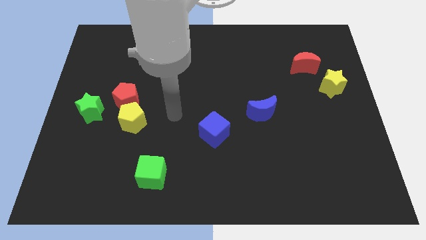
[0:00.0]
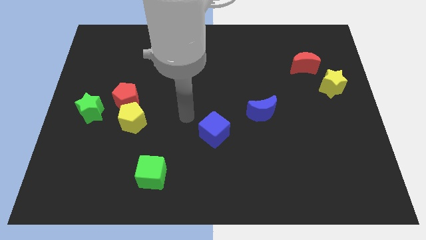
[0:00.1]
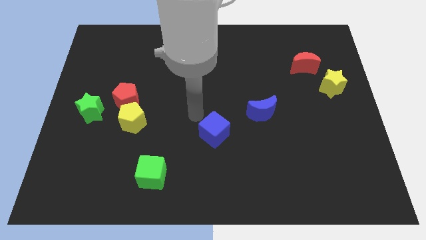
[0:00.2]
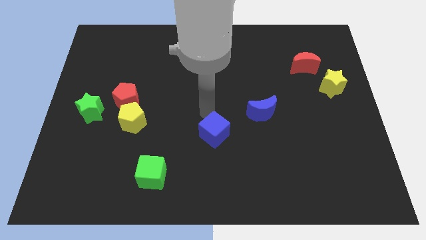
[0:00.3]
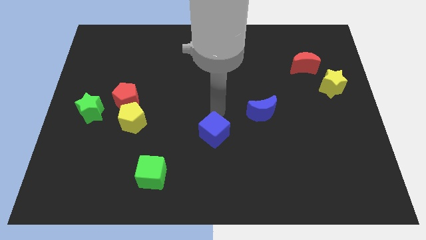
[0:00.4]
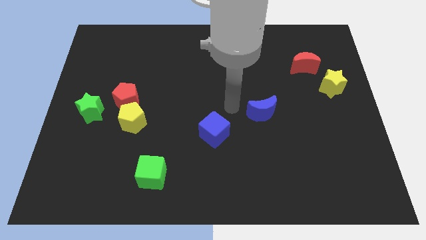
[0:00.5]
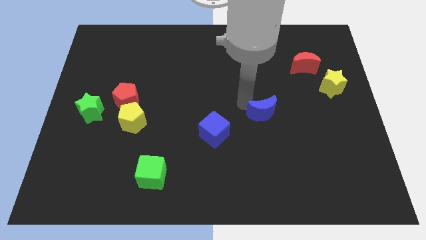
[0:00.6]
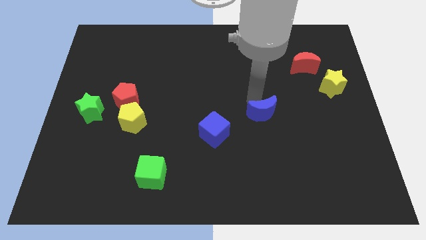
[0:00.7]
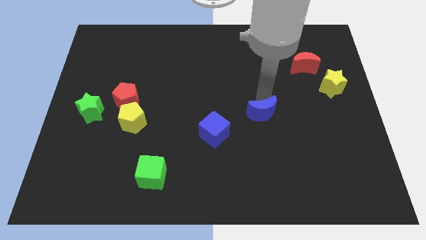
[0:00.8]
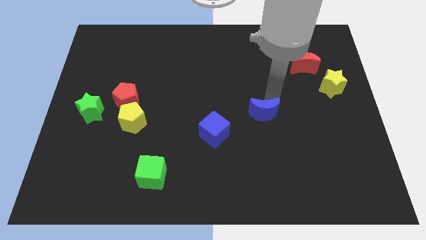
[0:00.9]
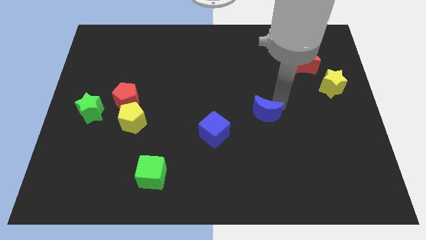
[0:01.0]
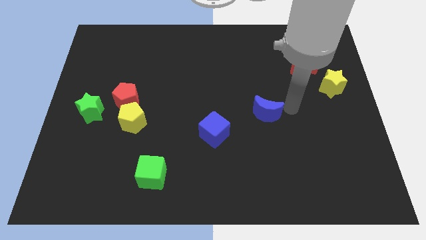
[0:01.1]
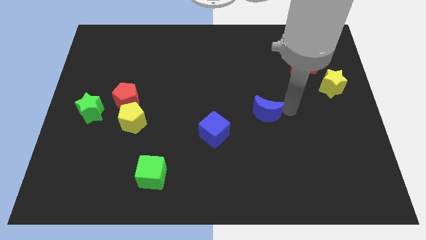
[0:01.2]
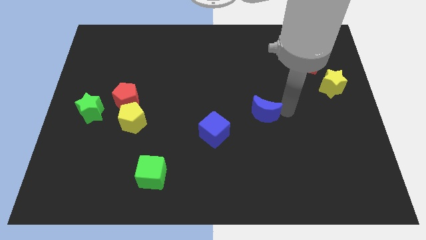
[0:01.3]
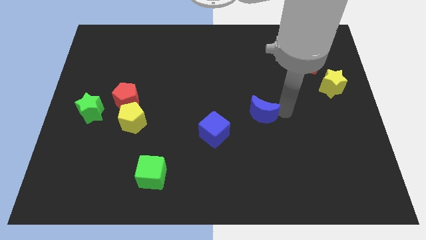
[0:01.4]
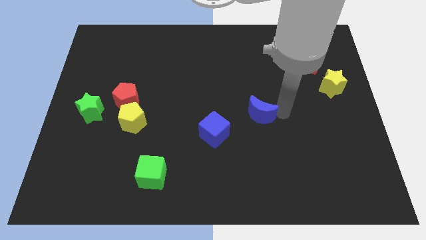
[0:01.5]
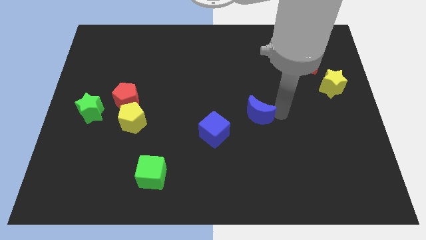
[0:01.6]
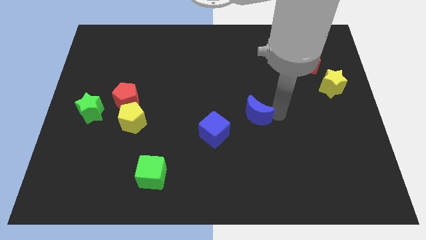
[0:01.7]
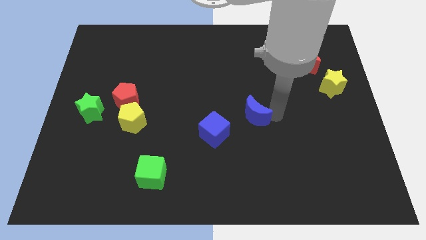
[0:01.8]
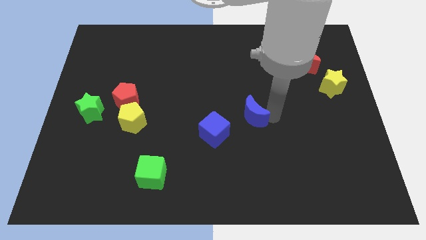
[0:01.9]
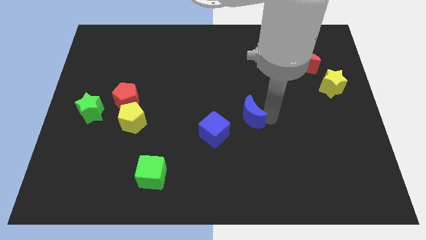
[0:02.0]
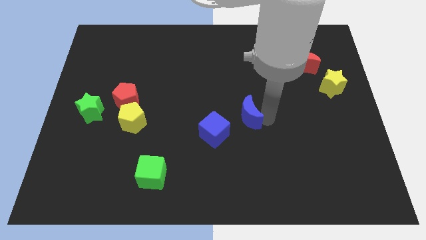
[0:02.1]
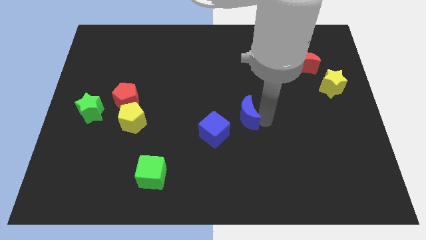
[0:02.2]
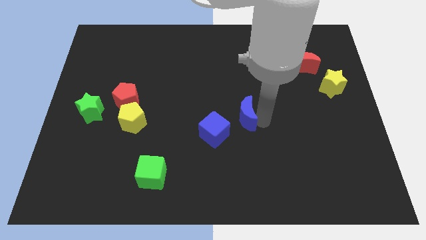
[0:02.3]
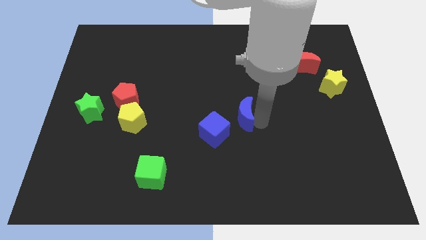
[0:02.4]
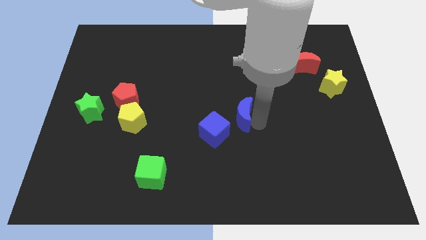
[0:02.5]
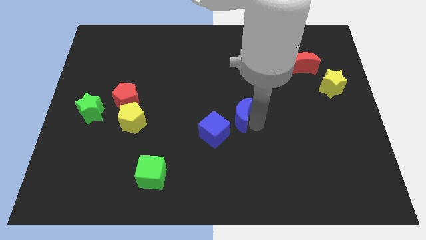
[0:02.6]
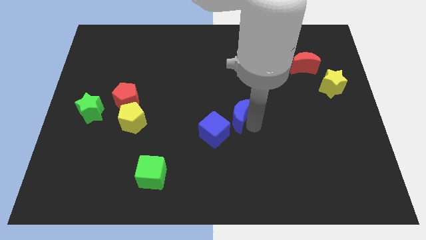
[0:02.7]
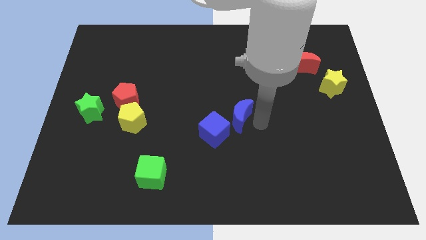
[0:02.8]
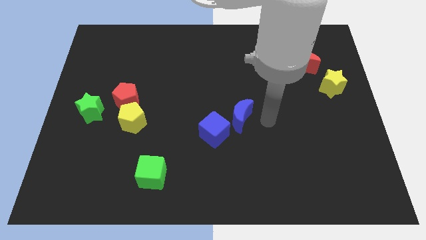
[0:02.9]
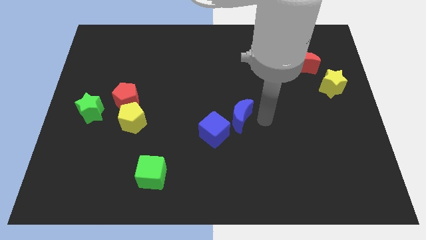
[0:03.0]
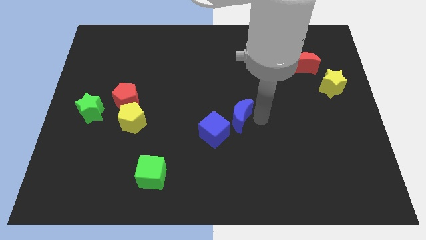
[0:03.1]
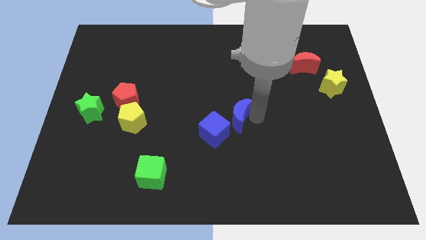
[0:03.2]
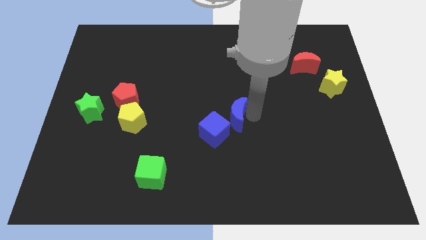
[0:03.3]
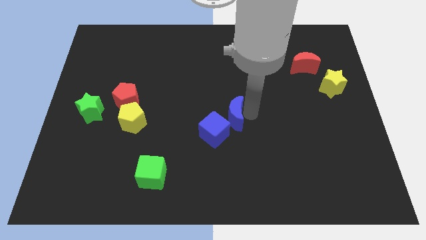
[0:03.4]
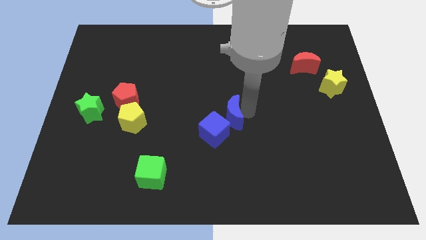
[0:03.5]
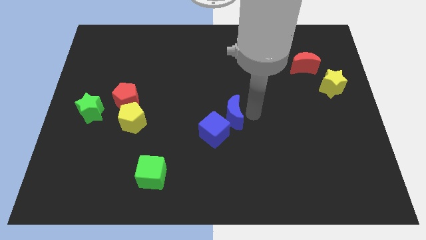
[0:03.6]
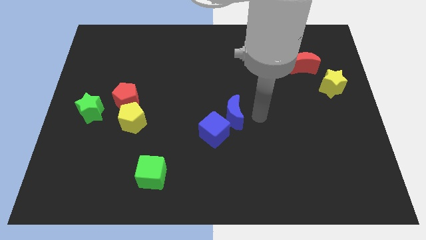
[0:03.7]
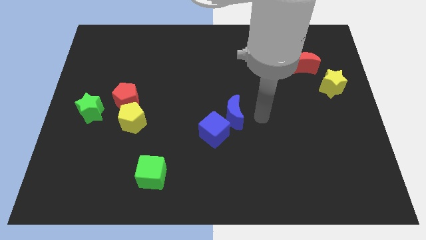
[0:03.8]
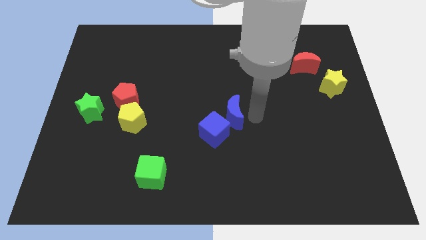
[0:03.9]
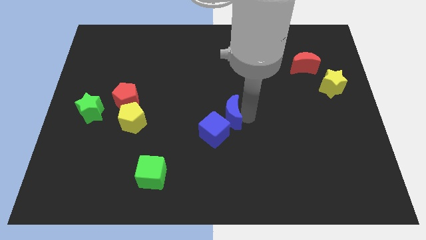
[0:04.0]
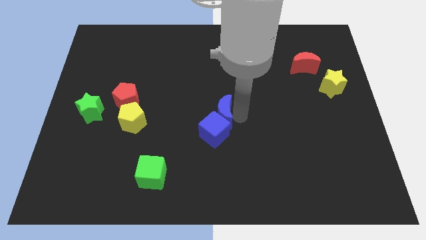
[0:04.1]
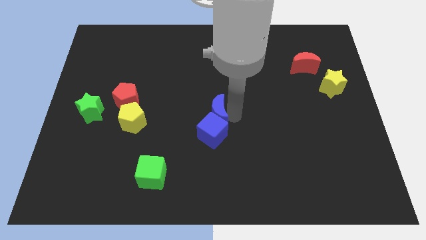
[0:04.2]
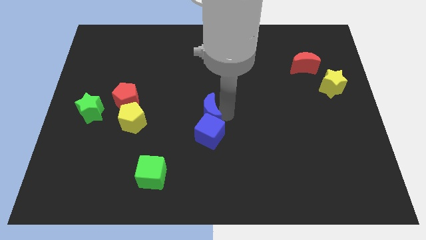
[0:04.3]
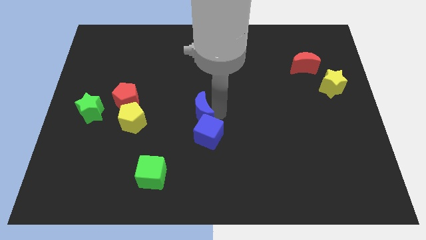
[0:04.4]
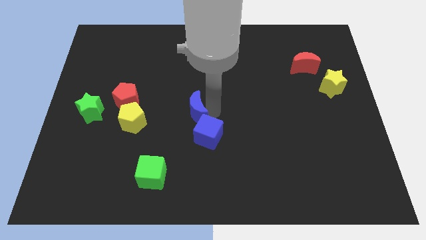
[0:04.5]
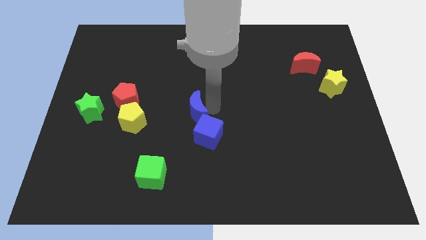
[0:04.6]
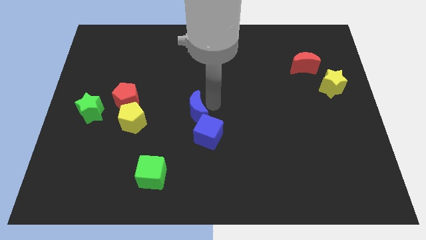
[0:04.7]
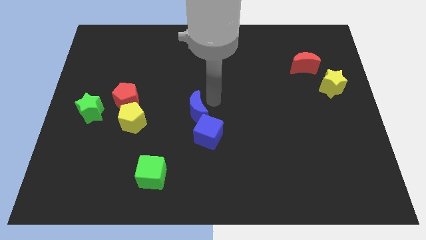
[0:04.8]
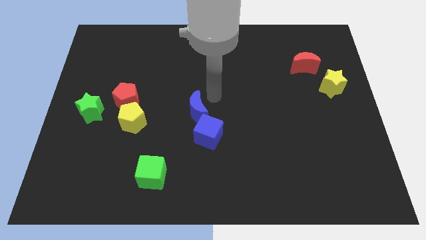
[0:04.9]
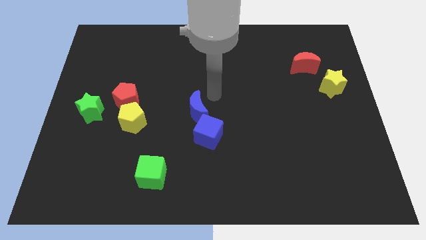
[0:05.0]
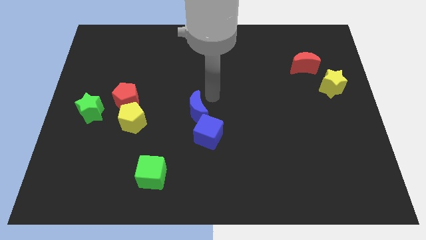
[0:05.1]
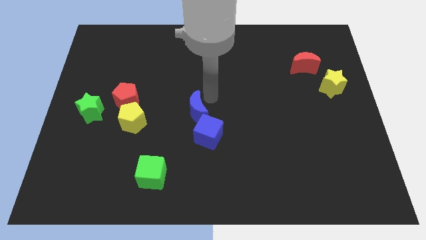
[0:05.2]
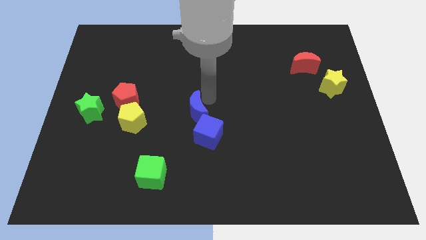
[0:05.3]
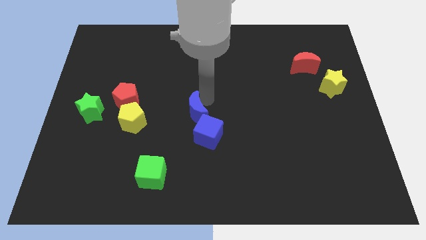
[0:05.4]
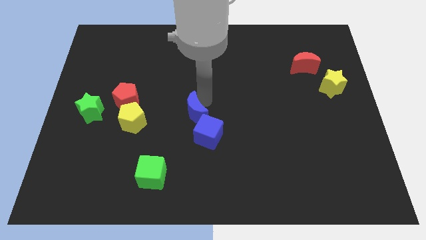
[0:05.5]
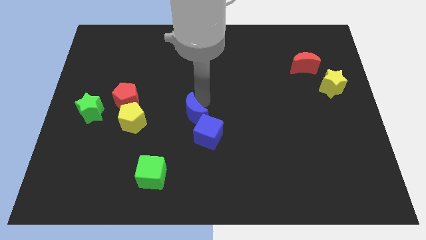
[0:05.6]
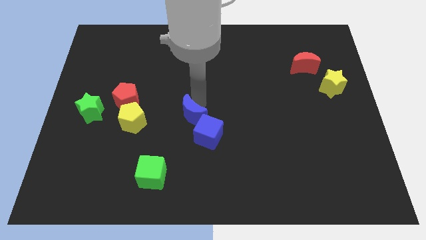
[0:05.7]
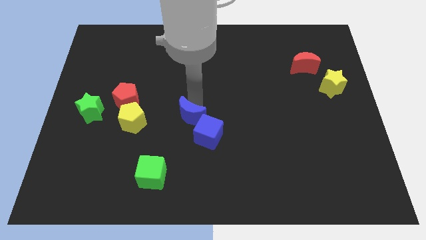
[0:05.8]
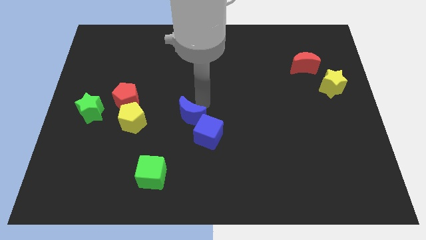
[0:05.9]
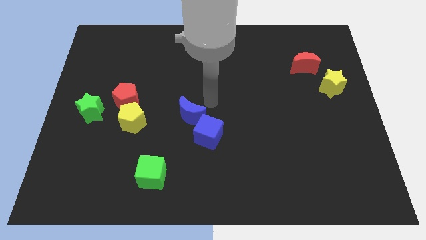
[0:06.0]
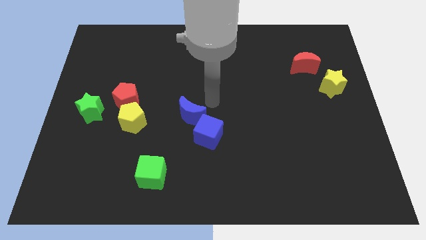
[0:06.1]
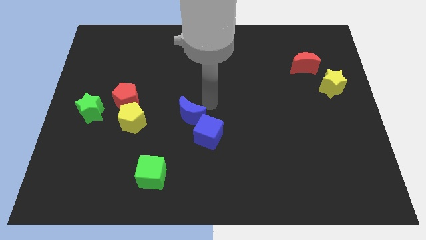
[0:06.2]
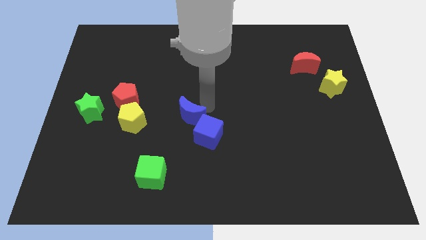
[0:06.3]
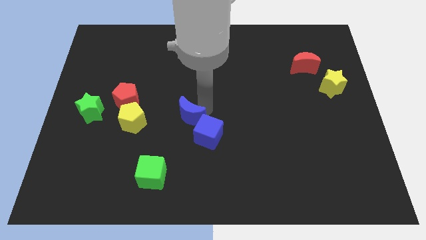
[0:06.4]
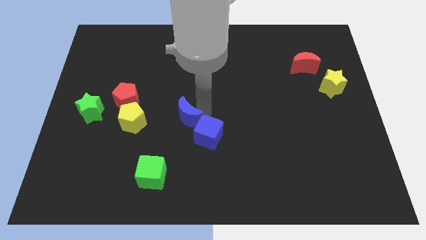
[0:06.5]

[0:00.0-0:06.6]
slide the blue moon to the left side of the blue cube

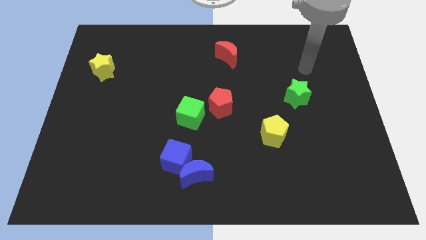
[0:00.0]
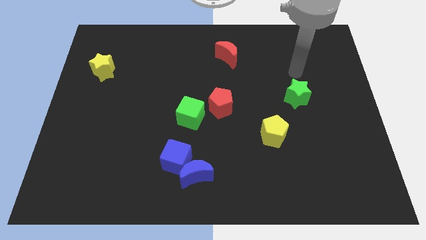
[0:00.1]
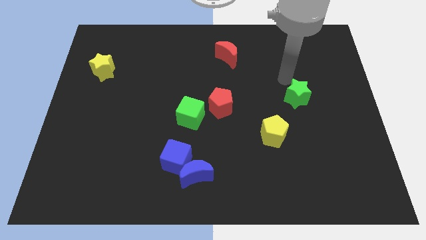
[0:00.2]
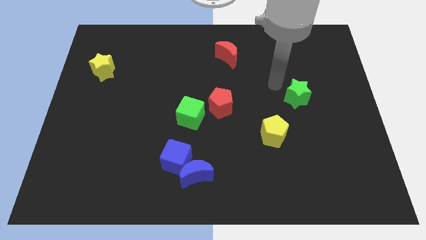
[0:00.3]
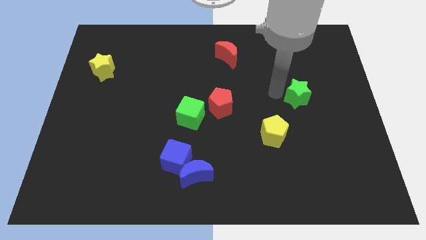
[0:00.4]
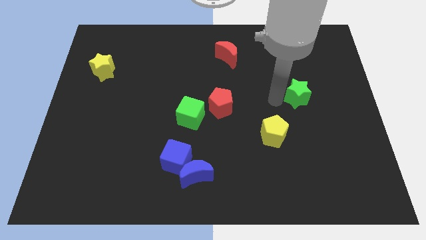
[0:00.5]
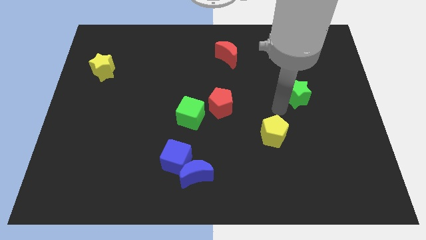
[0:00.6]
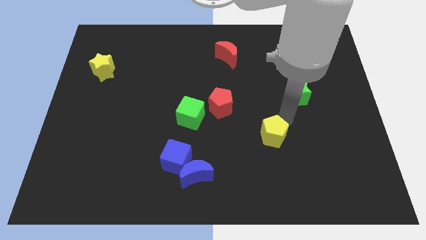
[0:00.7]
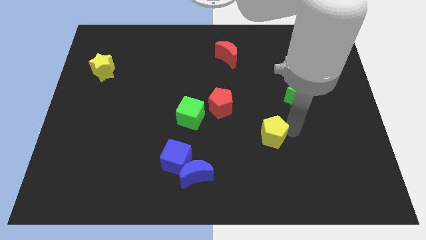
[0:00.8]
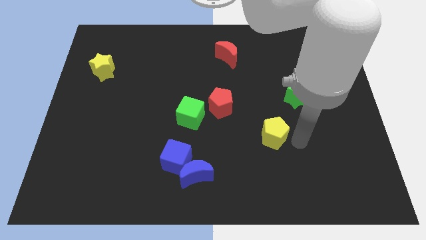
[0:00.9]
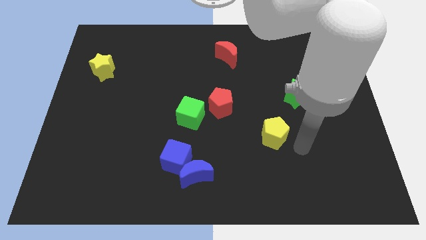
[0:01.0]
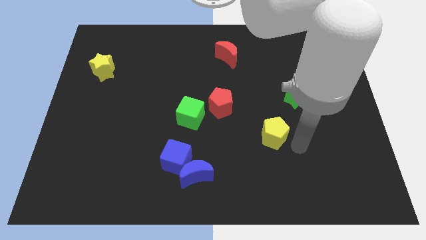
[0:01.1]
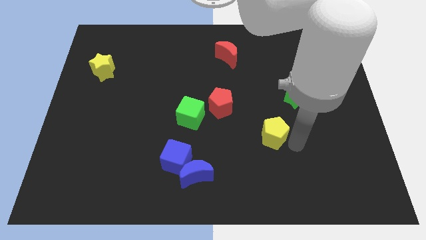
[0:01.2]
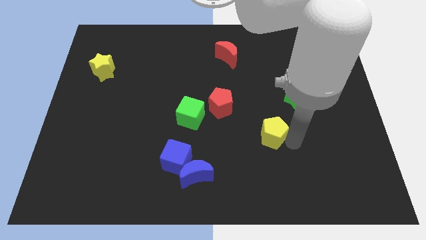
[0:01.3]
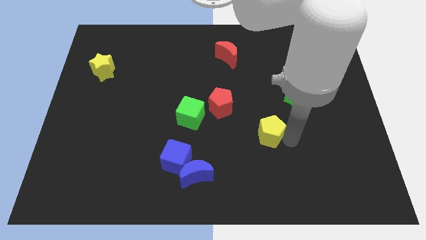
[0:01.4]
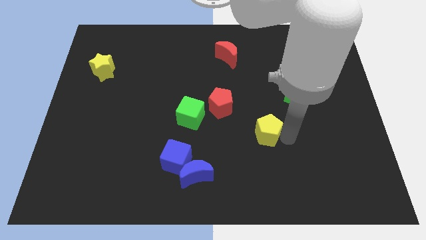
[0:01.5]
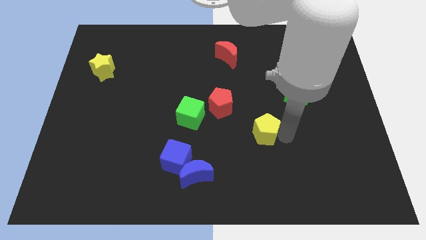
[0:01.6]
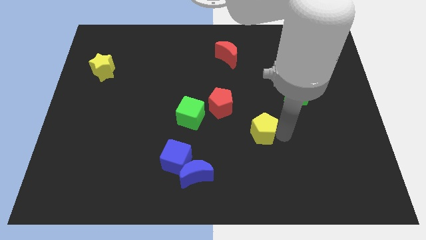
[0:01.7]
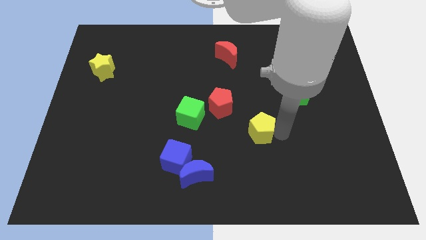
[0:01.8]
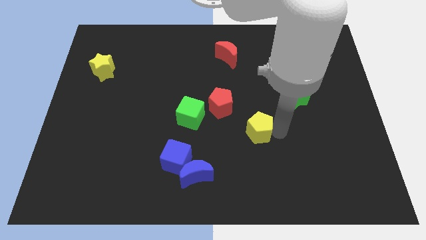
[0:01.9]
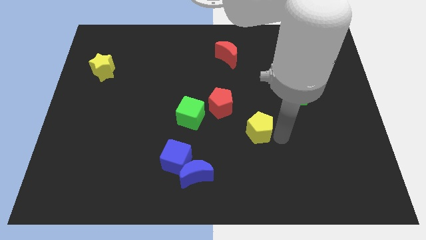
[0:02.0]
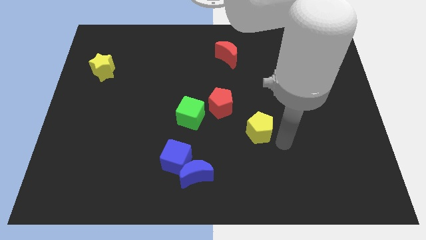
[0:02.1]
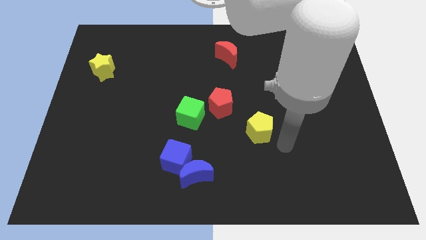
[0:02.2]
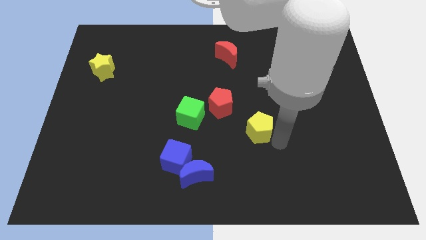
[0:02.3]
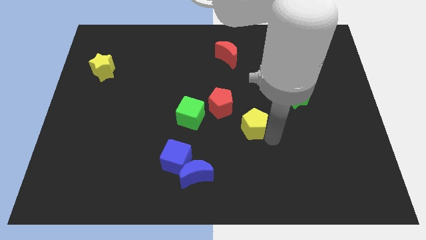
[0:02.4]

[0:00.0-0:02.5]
push the yellow pentagon to the right side of the green cube
